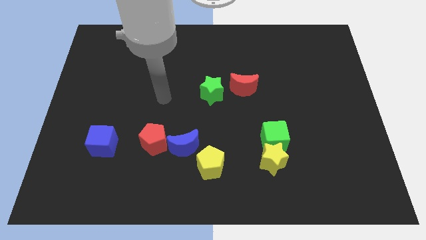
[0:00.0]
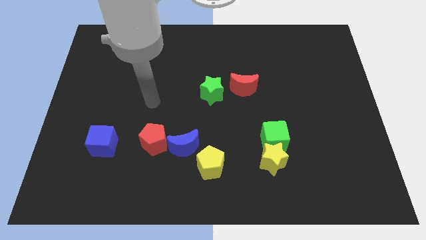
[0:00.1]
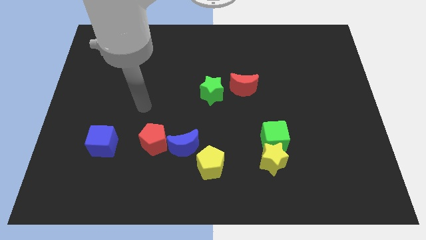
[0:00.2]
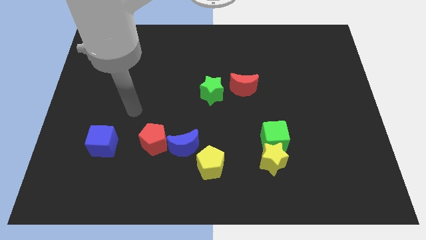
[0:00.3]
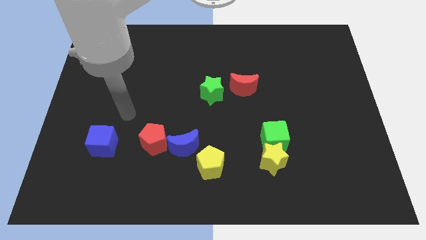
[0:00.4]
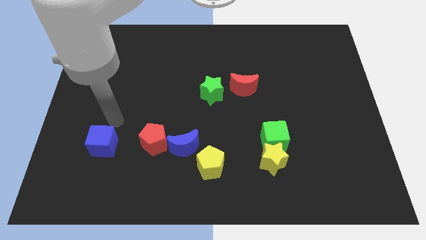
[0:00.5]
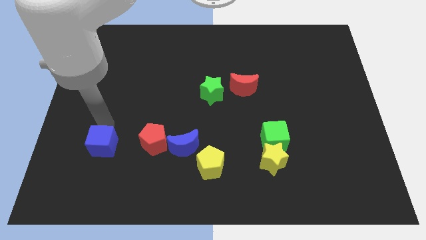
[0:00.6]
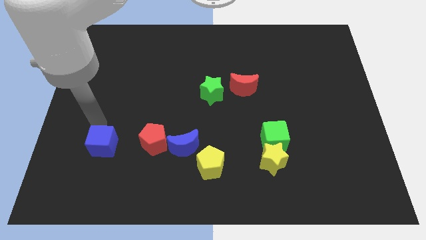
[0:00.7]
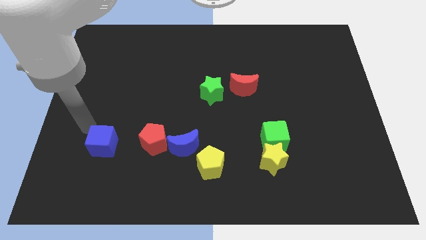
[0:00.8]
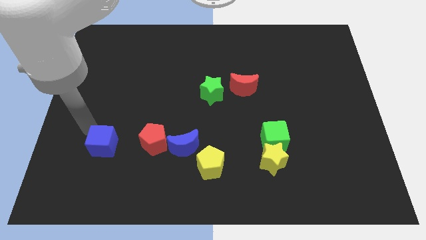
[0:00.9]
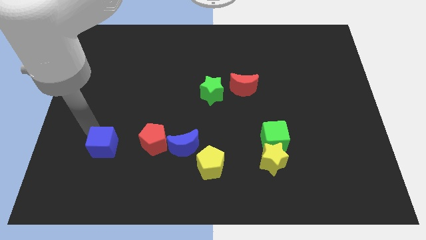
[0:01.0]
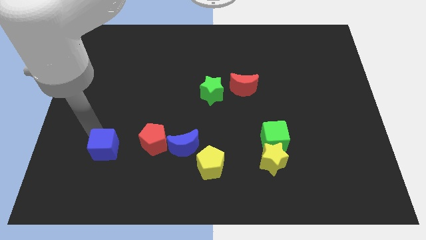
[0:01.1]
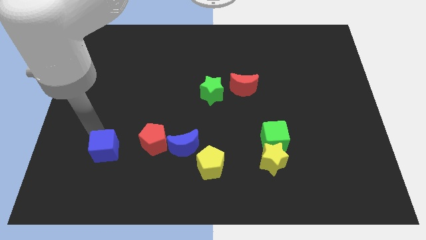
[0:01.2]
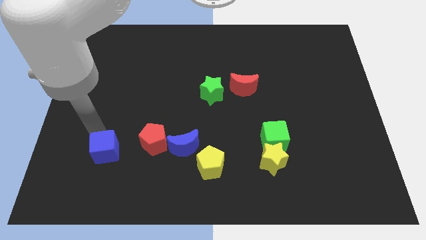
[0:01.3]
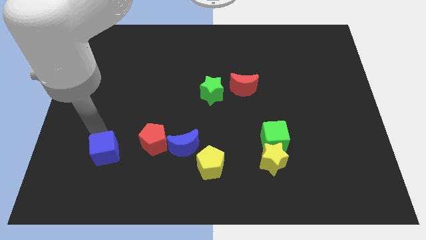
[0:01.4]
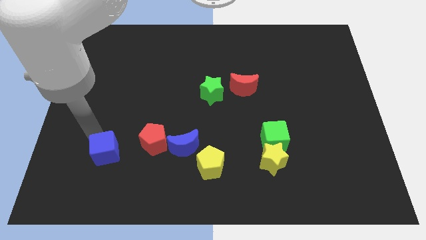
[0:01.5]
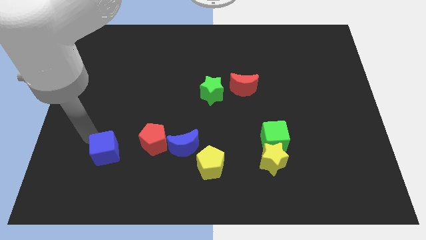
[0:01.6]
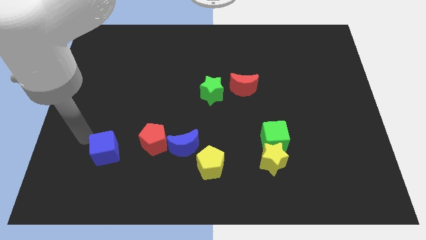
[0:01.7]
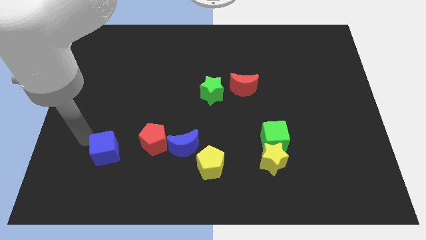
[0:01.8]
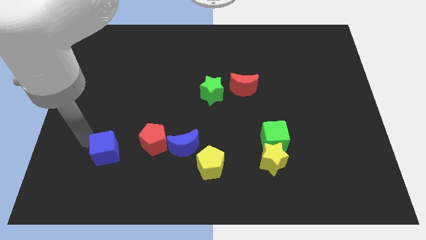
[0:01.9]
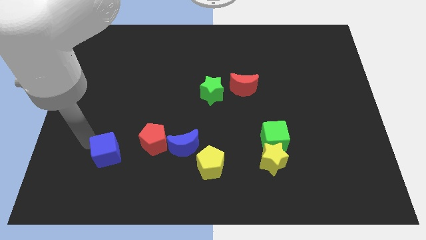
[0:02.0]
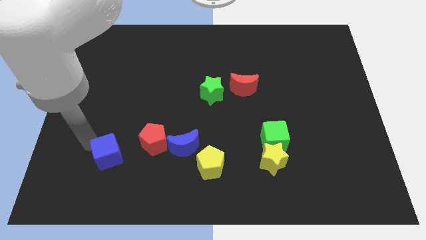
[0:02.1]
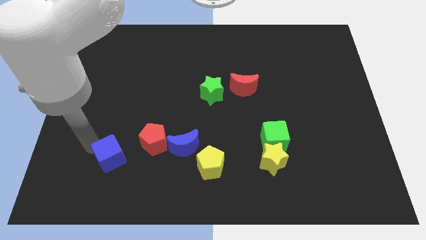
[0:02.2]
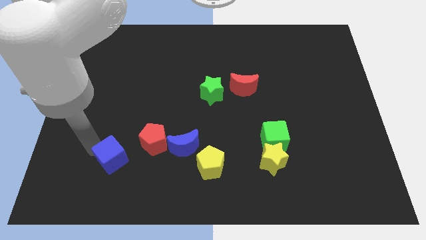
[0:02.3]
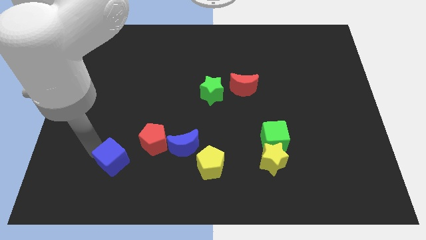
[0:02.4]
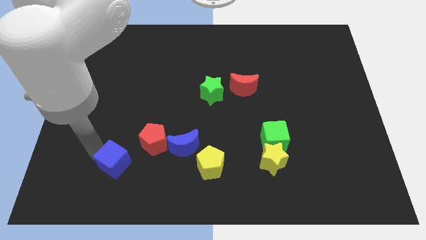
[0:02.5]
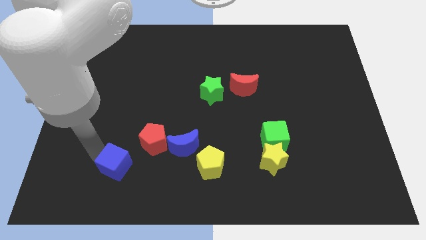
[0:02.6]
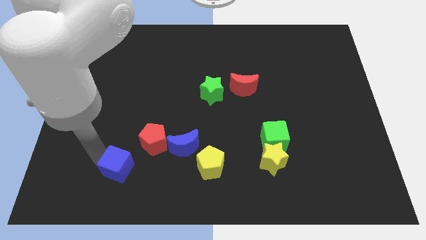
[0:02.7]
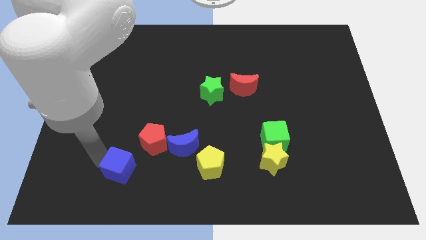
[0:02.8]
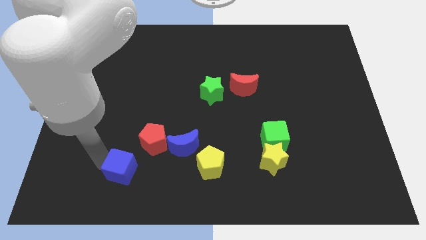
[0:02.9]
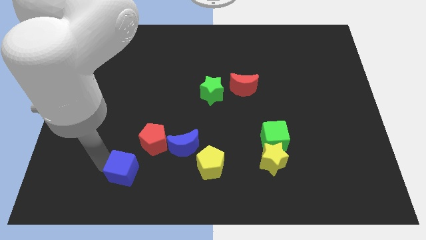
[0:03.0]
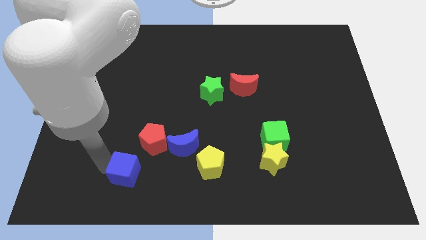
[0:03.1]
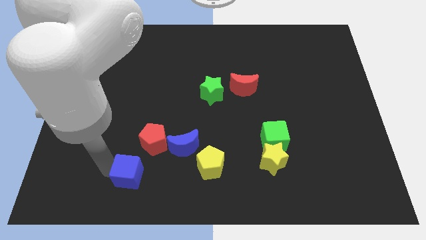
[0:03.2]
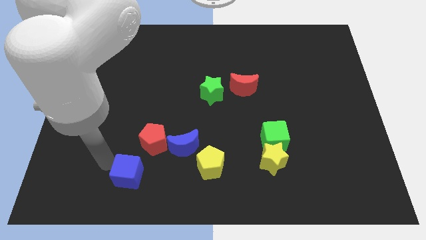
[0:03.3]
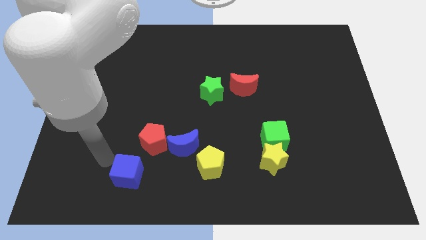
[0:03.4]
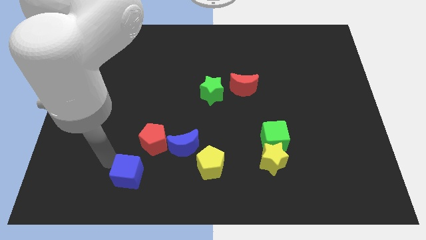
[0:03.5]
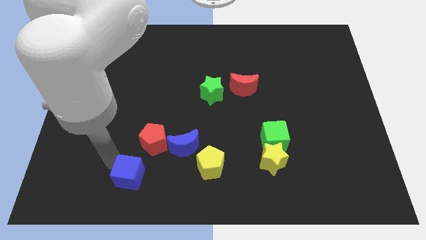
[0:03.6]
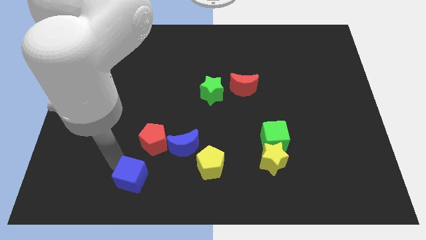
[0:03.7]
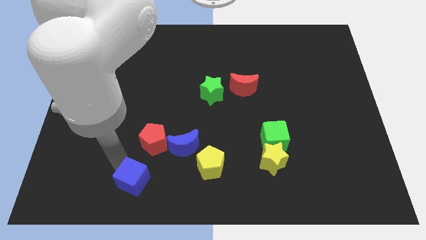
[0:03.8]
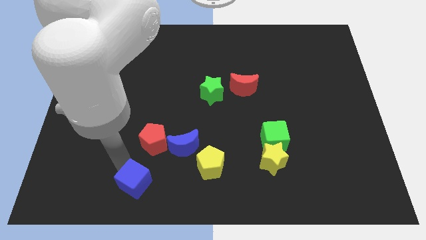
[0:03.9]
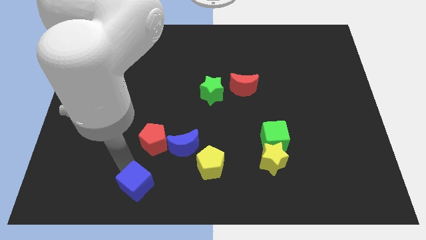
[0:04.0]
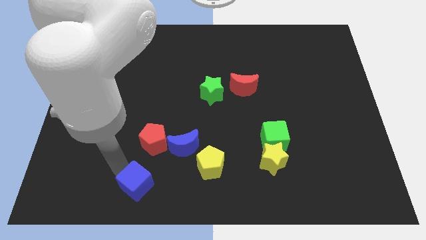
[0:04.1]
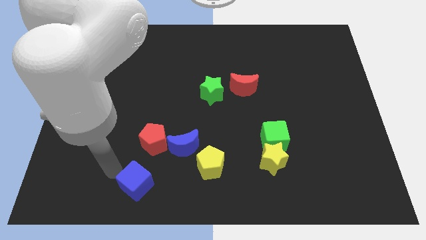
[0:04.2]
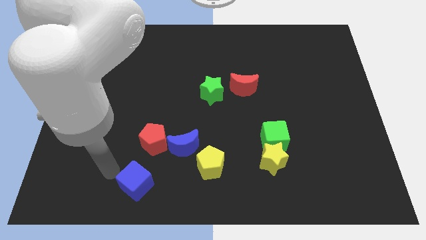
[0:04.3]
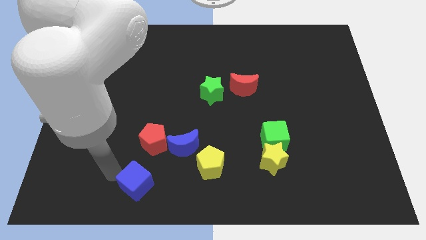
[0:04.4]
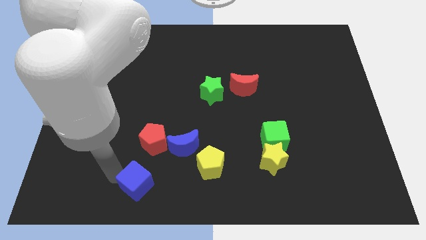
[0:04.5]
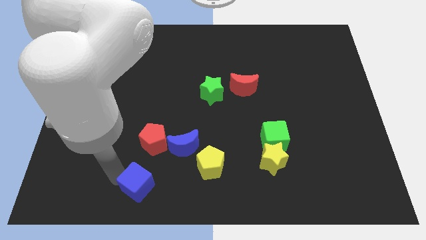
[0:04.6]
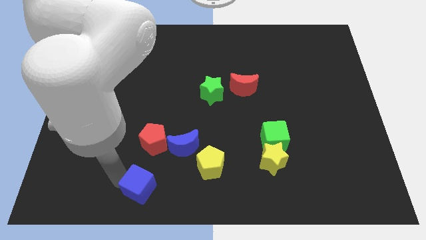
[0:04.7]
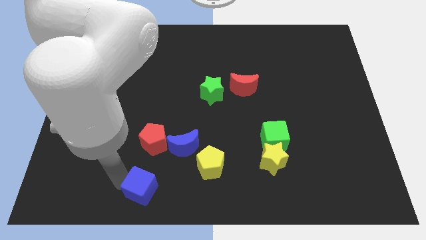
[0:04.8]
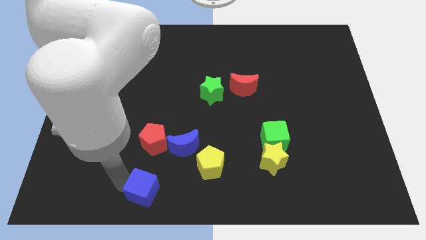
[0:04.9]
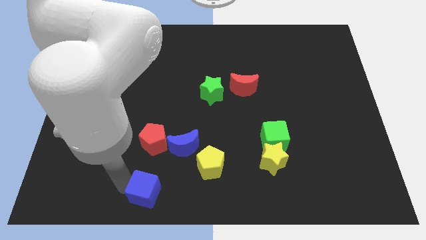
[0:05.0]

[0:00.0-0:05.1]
move the blue cube to the bottom side

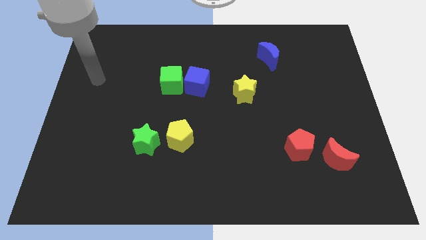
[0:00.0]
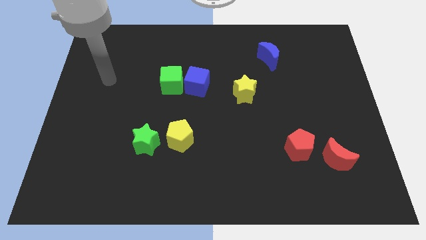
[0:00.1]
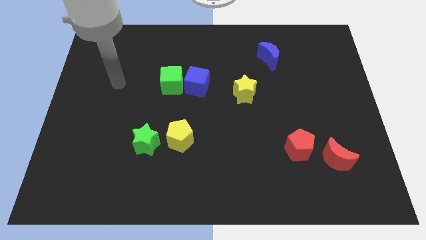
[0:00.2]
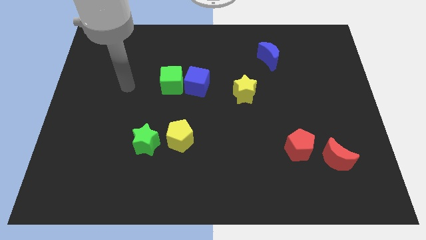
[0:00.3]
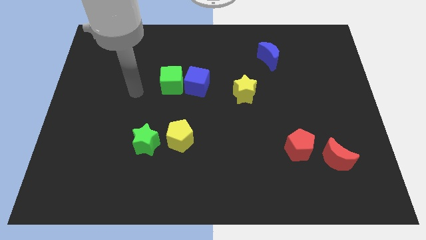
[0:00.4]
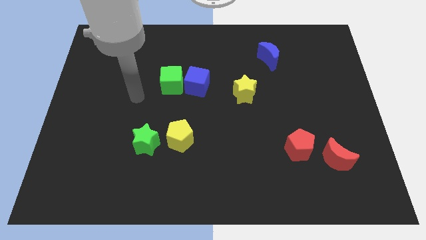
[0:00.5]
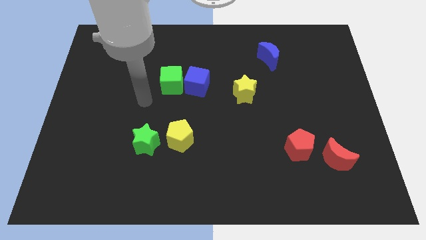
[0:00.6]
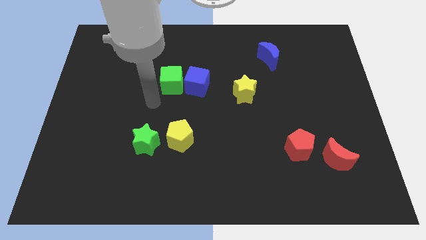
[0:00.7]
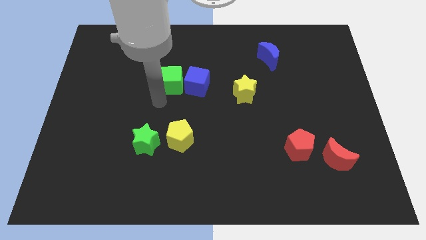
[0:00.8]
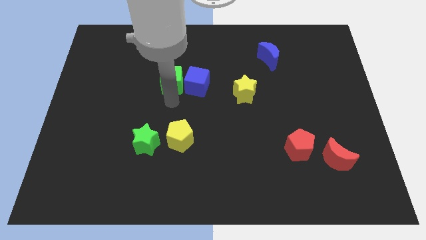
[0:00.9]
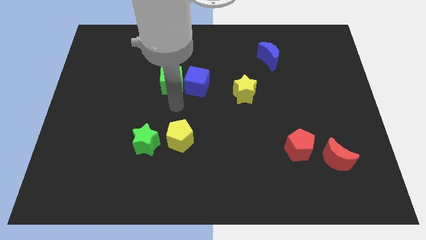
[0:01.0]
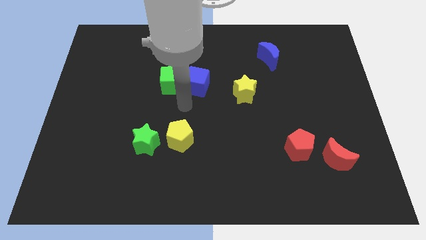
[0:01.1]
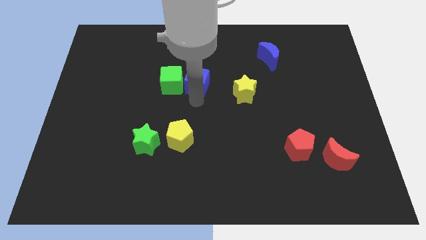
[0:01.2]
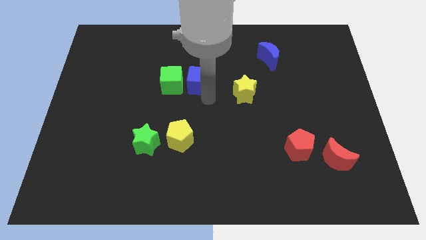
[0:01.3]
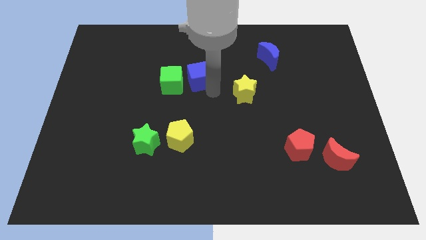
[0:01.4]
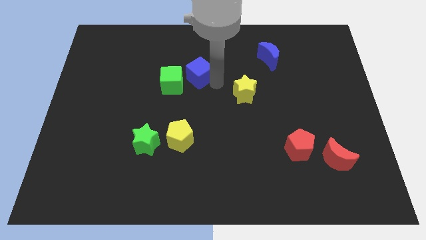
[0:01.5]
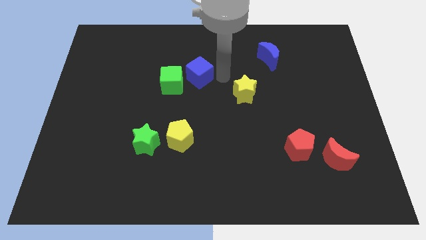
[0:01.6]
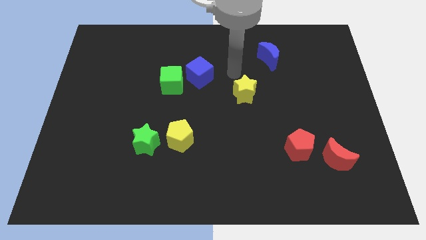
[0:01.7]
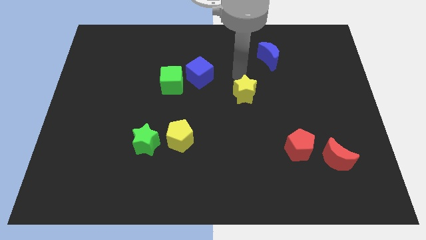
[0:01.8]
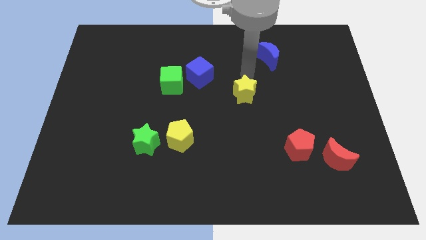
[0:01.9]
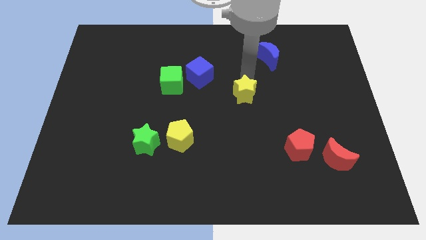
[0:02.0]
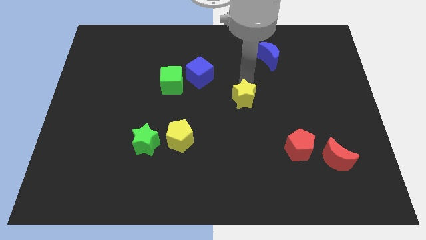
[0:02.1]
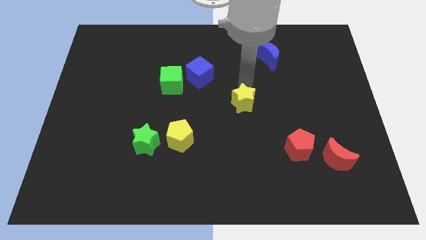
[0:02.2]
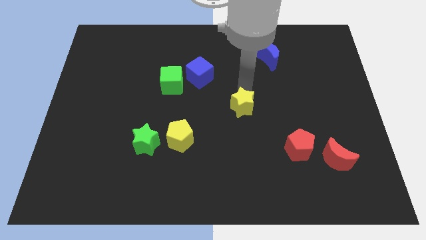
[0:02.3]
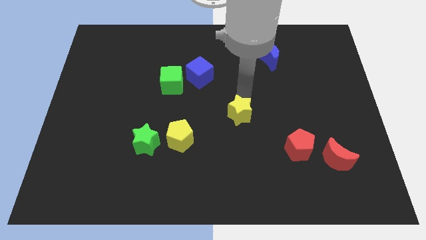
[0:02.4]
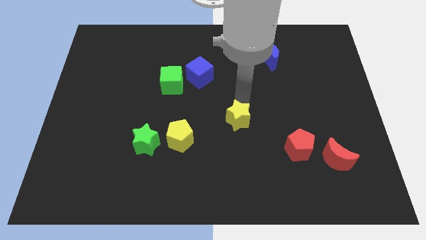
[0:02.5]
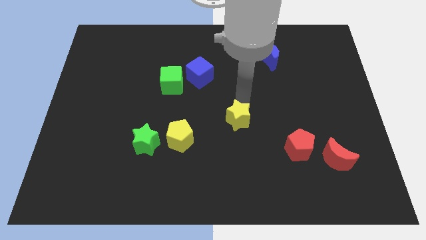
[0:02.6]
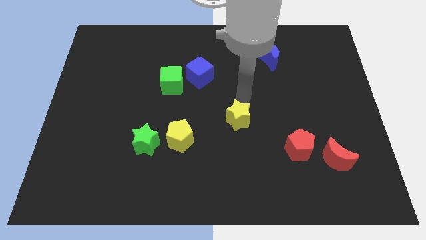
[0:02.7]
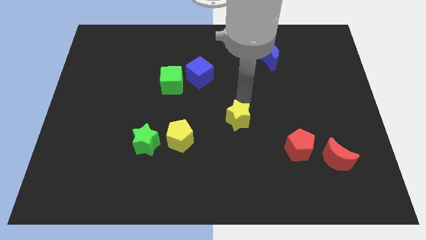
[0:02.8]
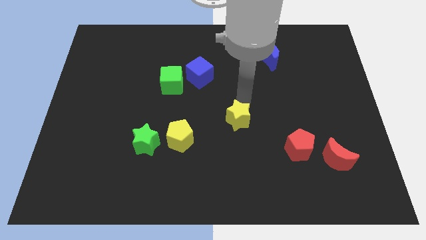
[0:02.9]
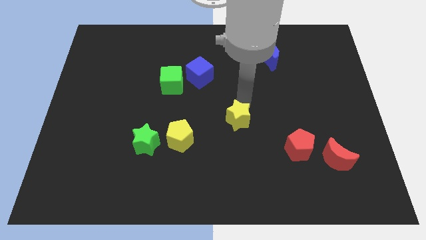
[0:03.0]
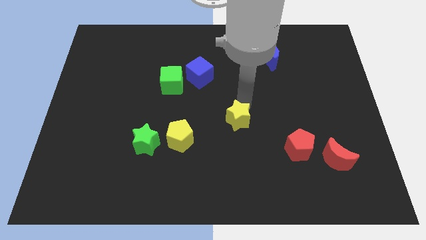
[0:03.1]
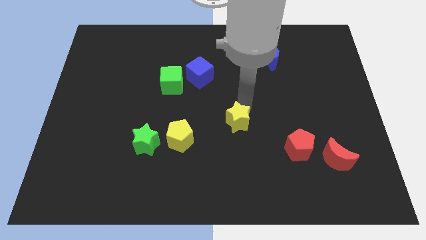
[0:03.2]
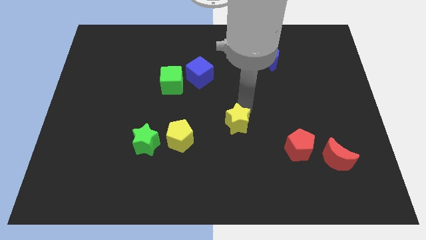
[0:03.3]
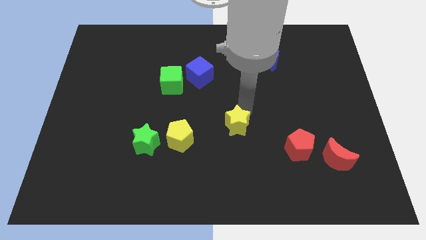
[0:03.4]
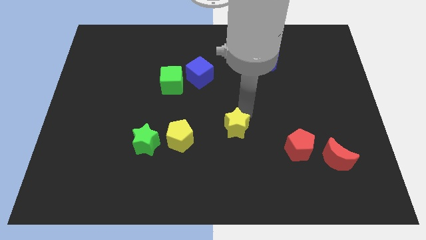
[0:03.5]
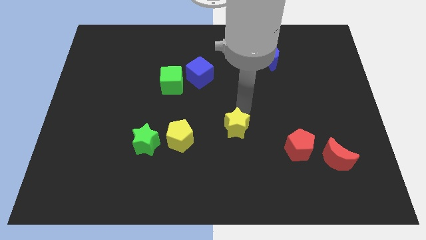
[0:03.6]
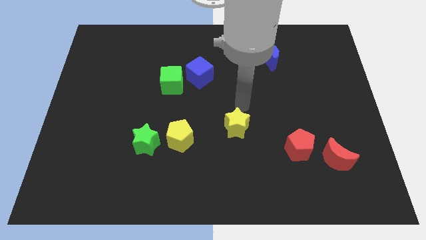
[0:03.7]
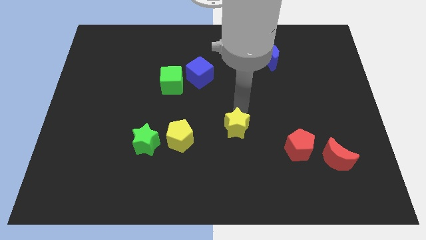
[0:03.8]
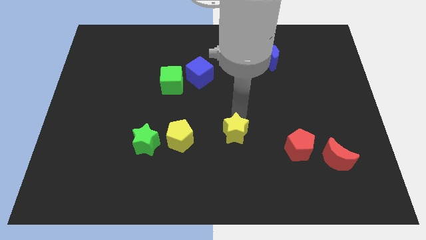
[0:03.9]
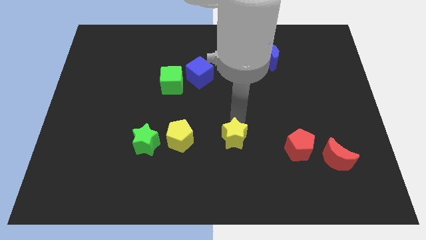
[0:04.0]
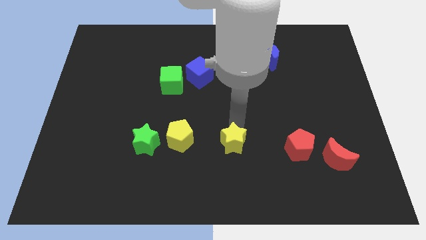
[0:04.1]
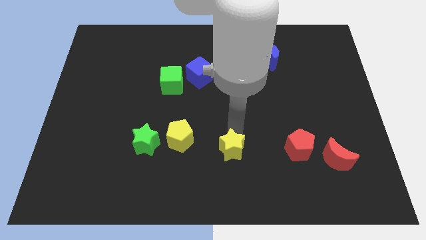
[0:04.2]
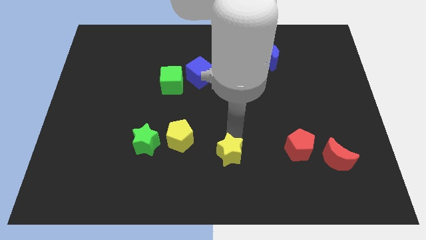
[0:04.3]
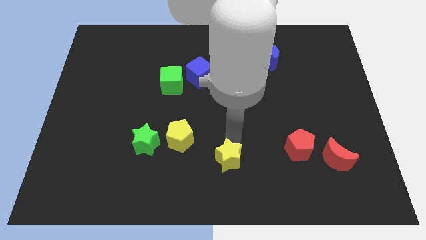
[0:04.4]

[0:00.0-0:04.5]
move the yellow star to the bottom side
